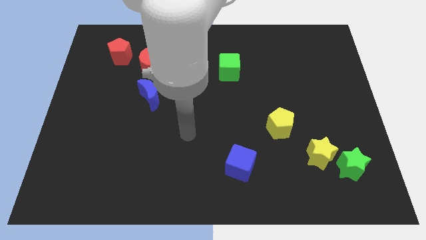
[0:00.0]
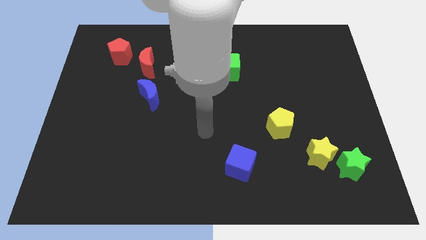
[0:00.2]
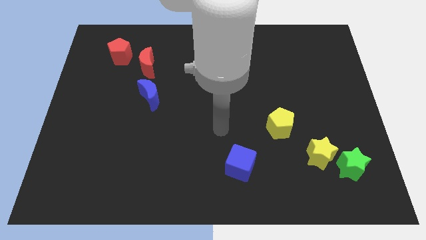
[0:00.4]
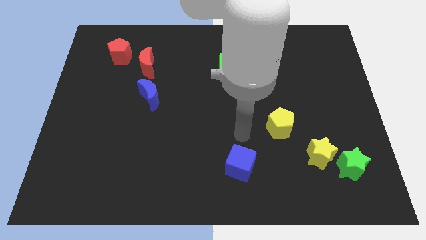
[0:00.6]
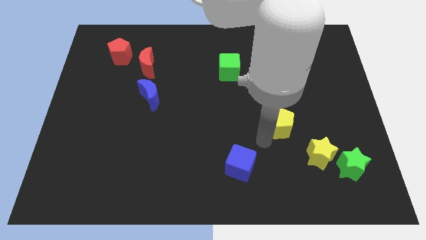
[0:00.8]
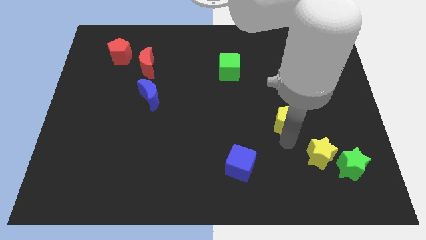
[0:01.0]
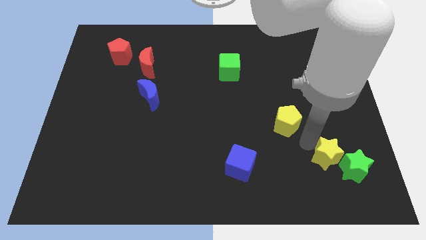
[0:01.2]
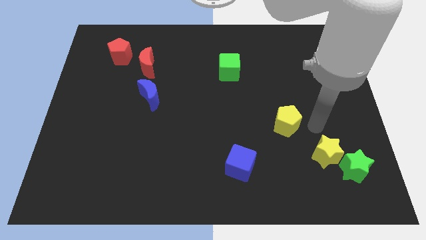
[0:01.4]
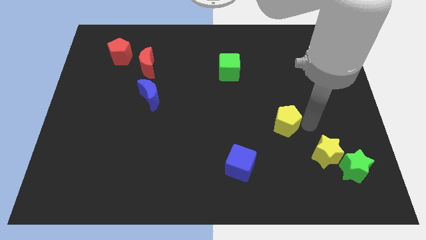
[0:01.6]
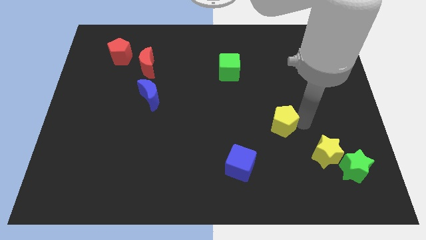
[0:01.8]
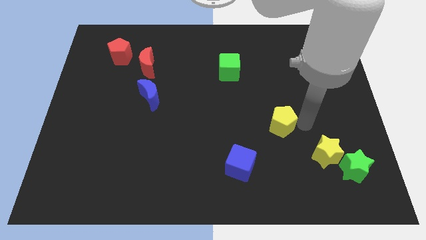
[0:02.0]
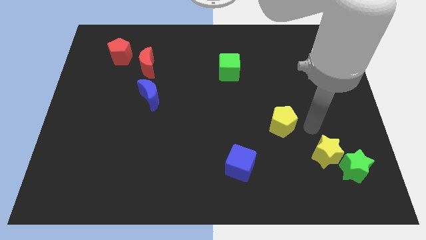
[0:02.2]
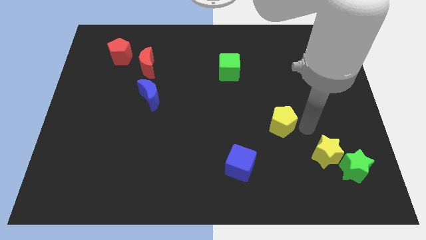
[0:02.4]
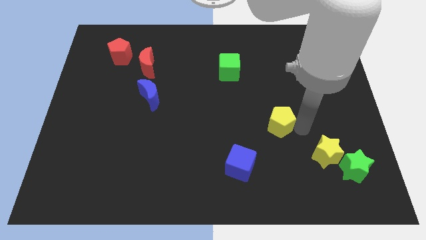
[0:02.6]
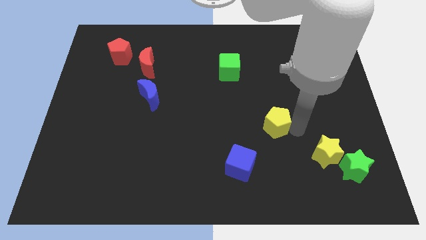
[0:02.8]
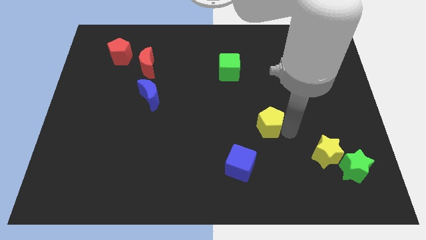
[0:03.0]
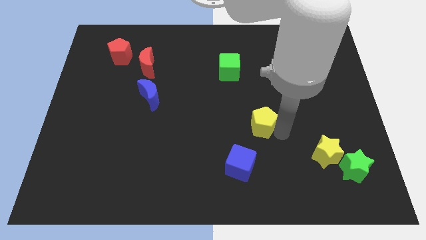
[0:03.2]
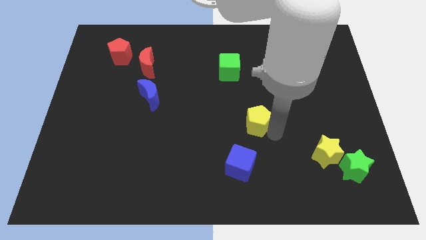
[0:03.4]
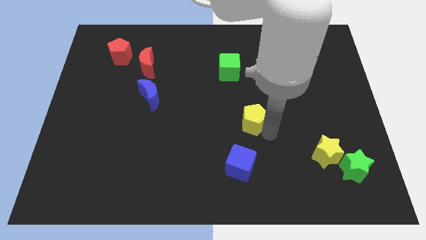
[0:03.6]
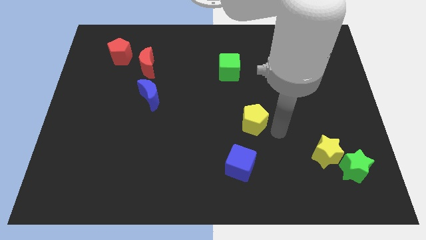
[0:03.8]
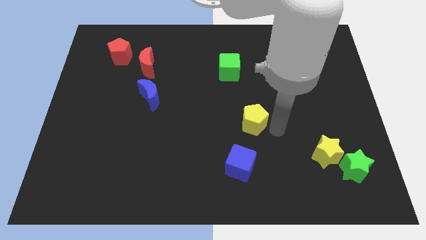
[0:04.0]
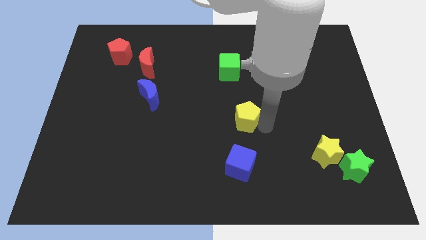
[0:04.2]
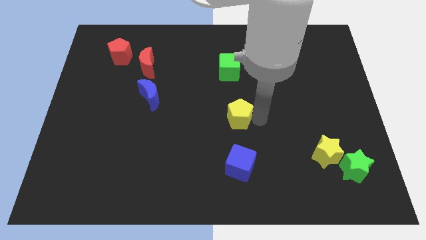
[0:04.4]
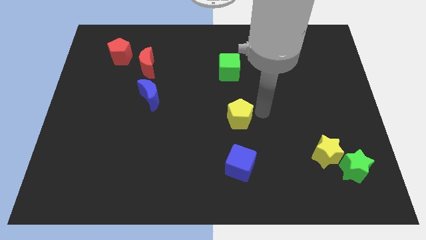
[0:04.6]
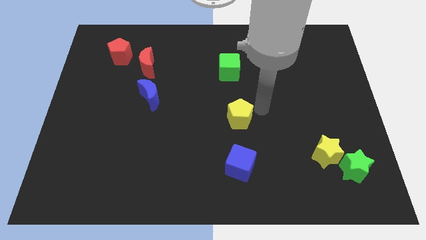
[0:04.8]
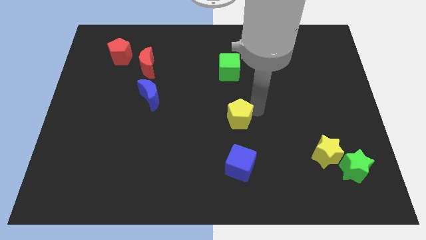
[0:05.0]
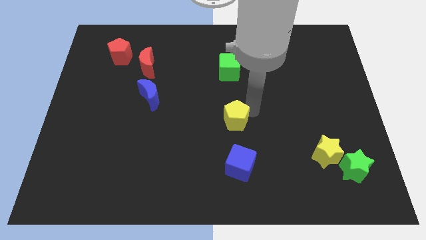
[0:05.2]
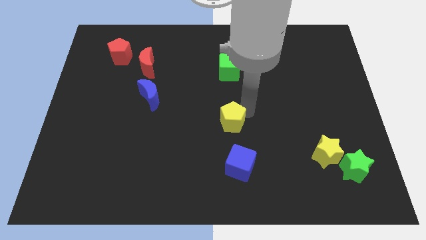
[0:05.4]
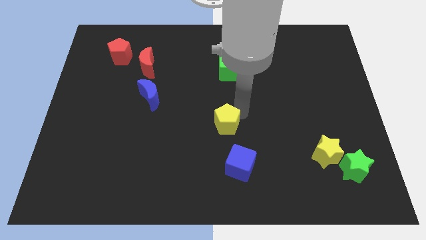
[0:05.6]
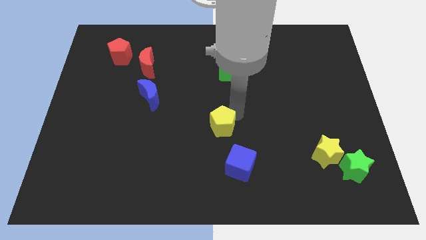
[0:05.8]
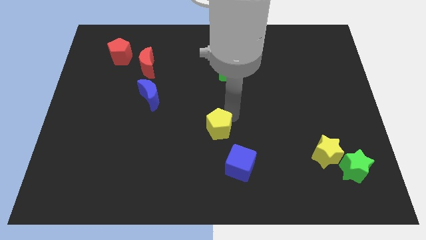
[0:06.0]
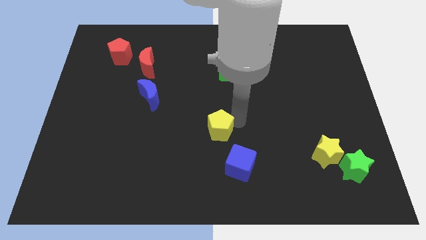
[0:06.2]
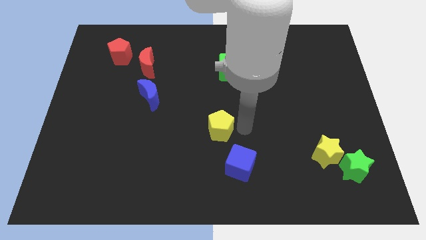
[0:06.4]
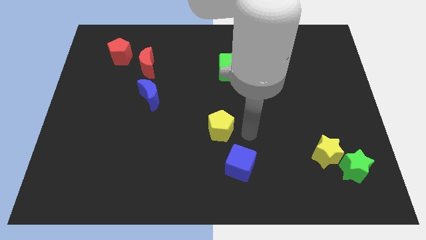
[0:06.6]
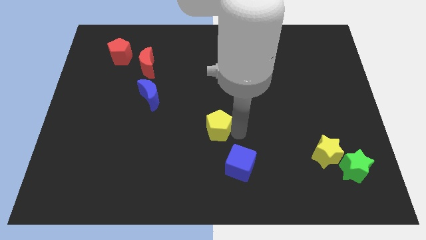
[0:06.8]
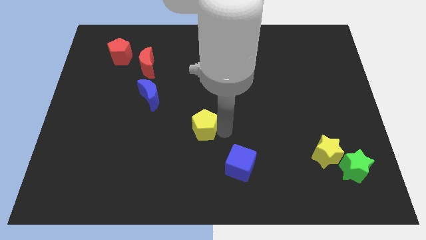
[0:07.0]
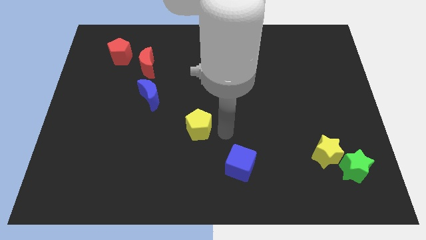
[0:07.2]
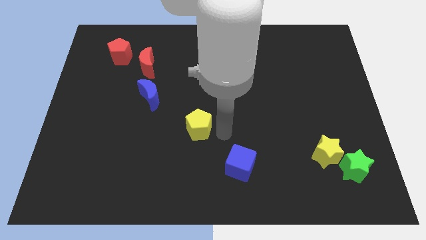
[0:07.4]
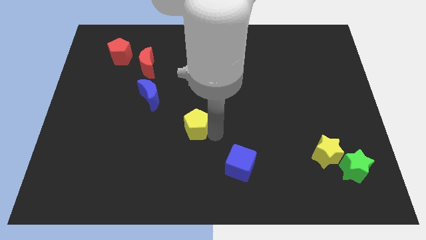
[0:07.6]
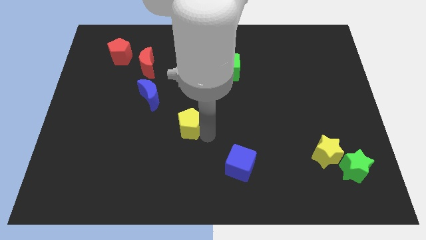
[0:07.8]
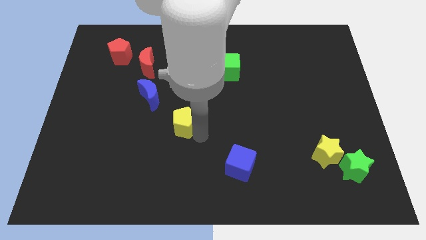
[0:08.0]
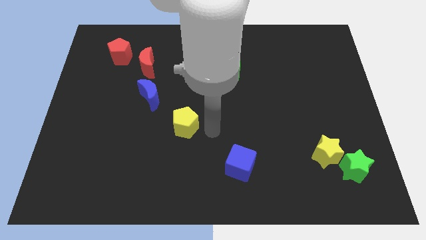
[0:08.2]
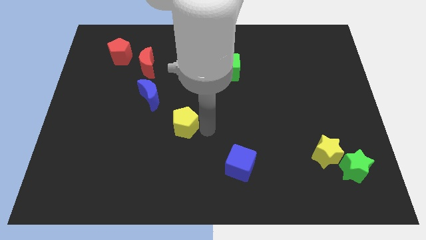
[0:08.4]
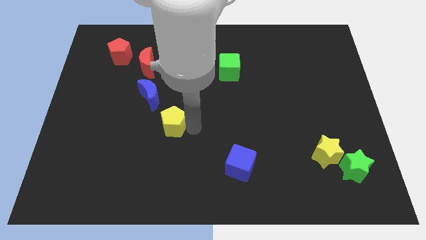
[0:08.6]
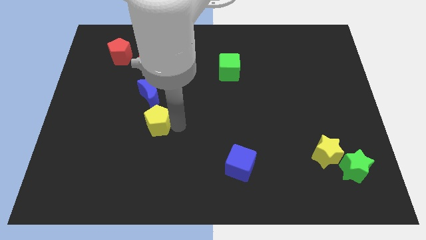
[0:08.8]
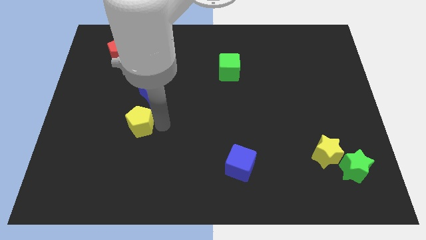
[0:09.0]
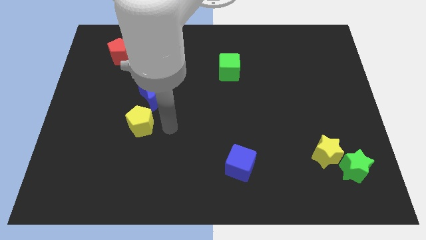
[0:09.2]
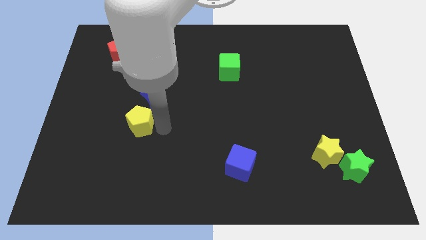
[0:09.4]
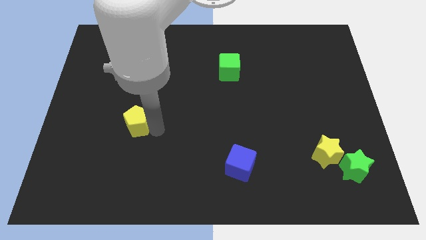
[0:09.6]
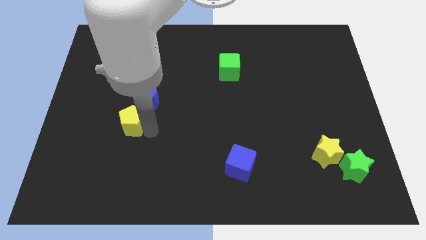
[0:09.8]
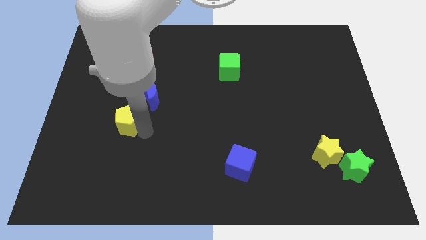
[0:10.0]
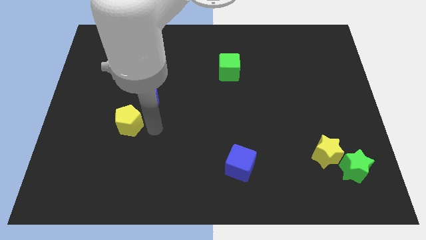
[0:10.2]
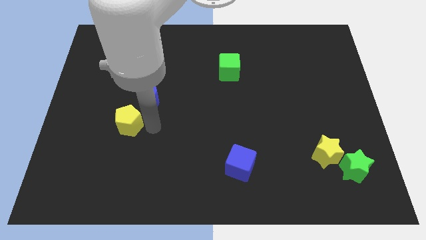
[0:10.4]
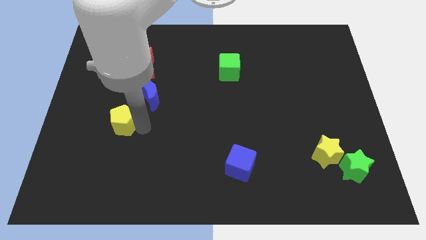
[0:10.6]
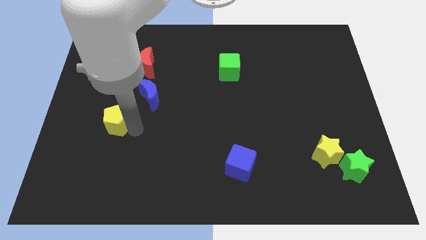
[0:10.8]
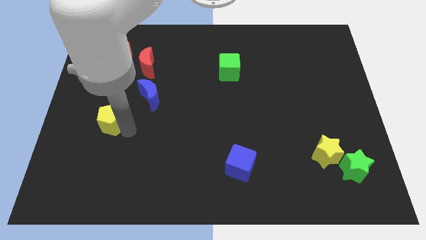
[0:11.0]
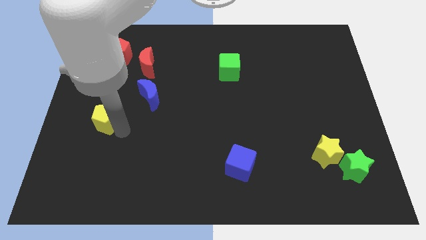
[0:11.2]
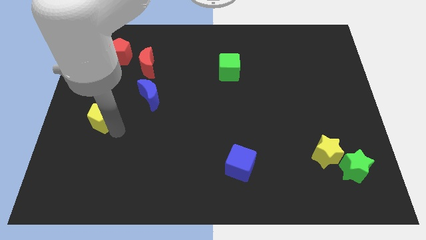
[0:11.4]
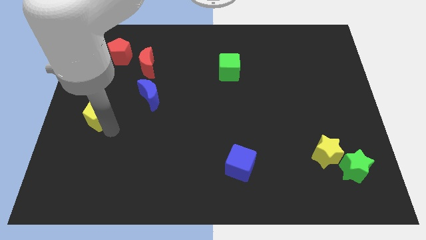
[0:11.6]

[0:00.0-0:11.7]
push the yellow pentagon to the left side
